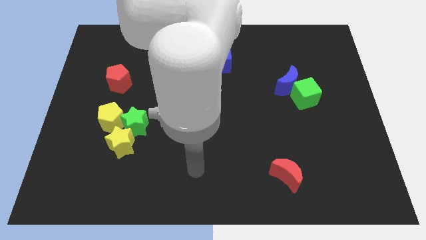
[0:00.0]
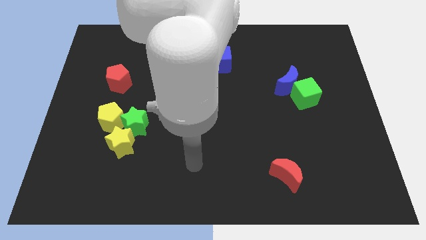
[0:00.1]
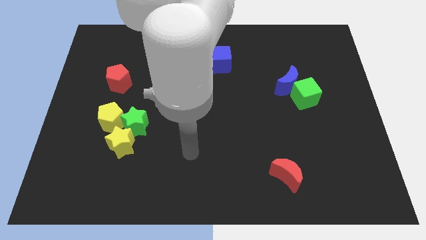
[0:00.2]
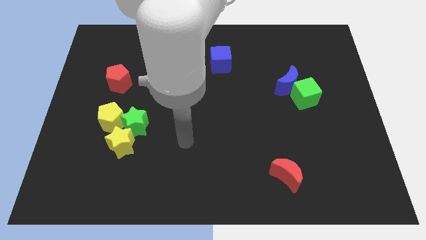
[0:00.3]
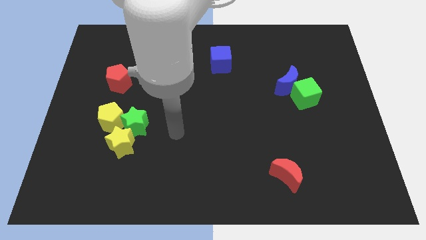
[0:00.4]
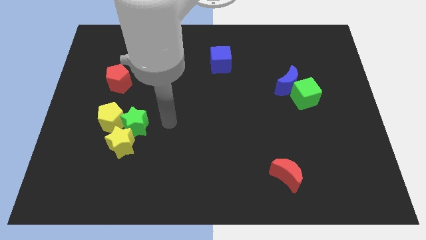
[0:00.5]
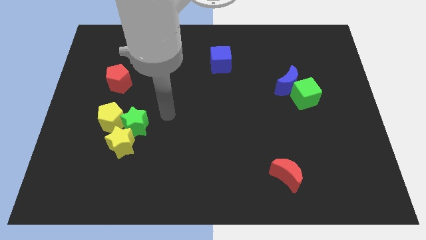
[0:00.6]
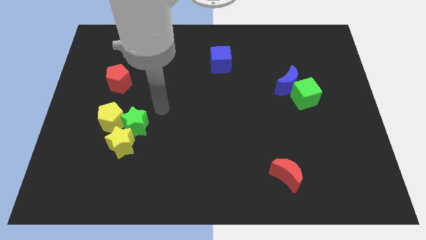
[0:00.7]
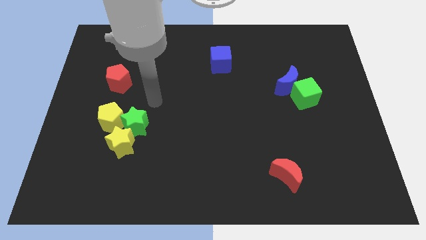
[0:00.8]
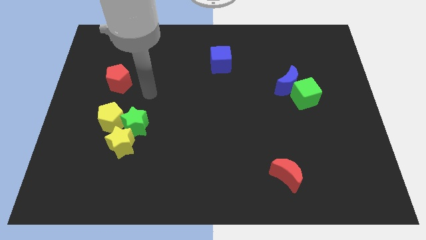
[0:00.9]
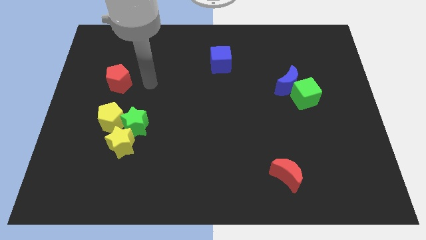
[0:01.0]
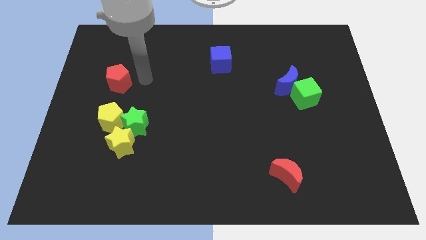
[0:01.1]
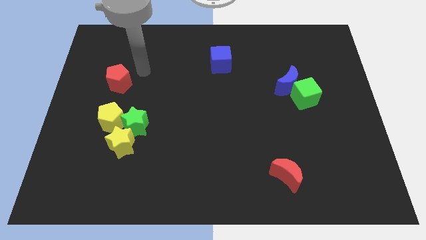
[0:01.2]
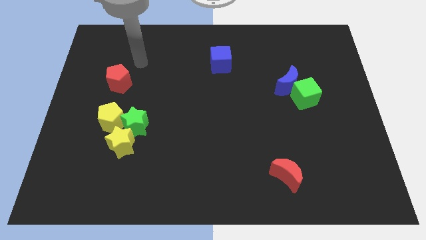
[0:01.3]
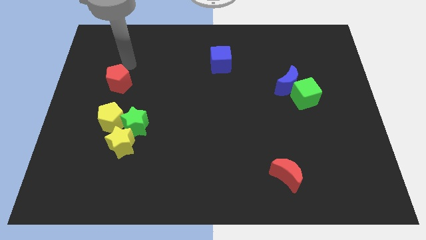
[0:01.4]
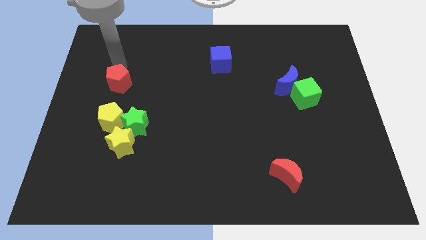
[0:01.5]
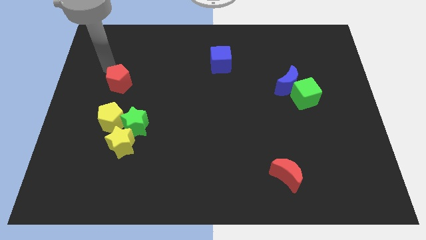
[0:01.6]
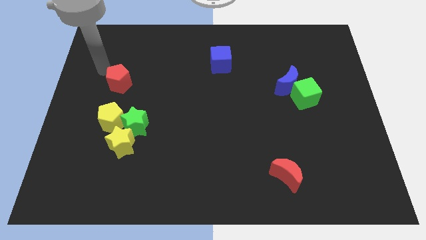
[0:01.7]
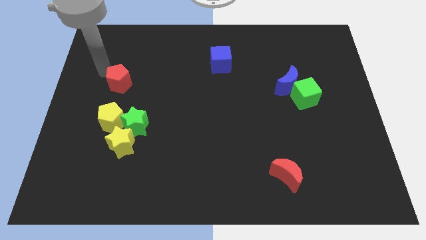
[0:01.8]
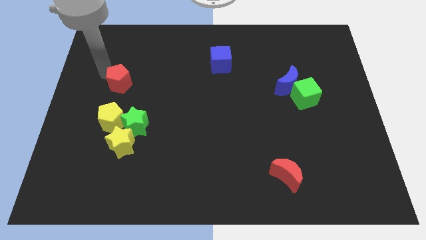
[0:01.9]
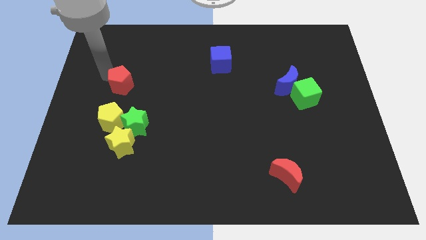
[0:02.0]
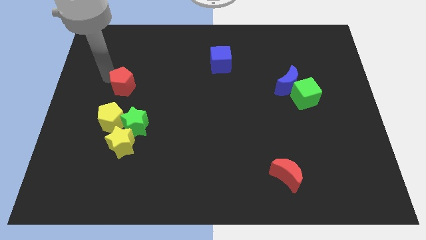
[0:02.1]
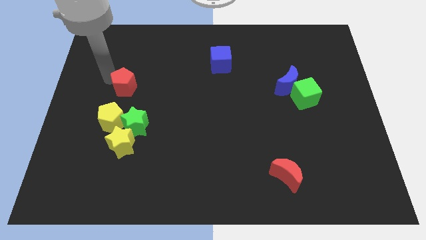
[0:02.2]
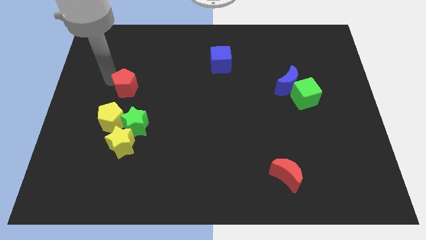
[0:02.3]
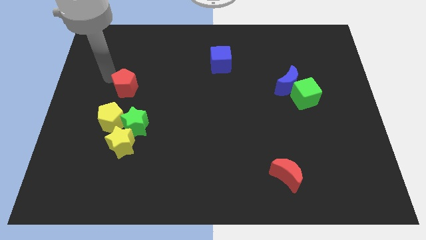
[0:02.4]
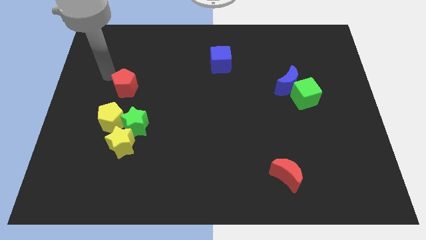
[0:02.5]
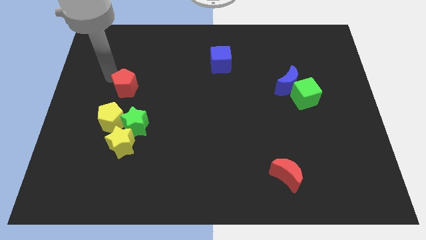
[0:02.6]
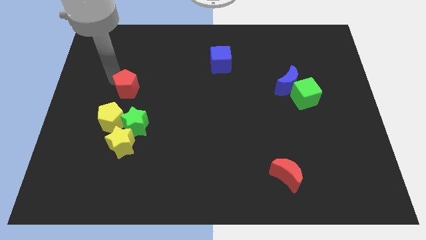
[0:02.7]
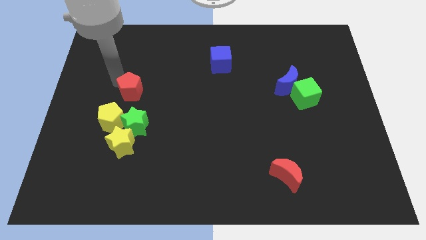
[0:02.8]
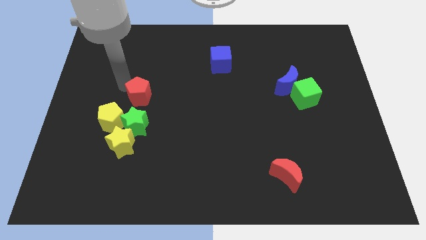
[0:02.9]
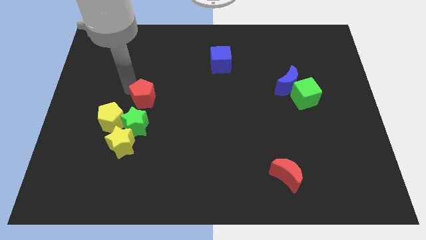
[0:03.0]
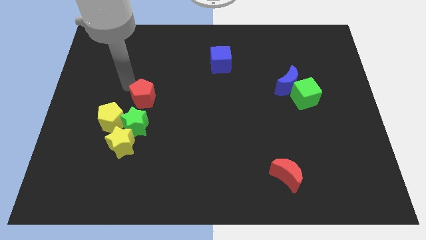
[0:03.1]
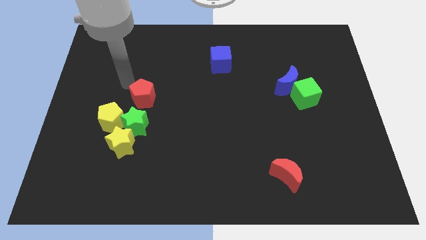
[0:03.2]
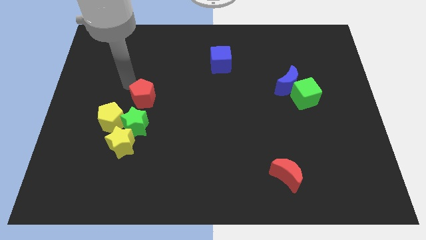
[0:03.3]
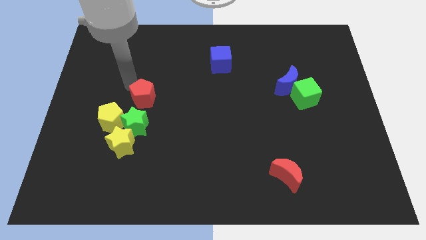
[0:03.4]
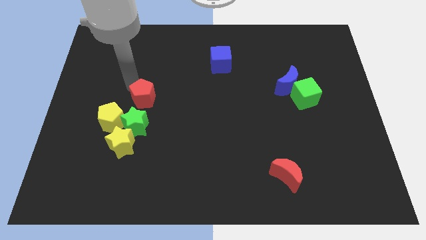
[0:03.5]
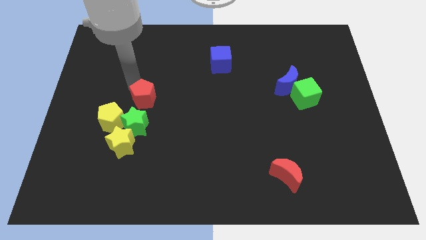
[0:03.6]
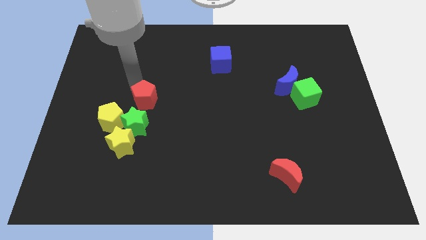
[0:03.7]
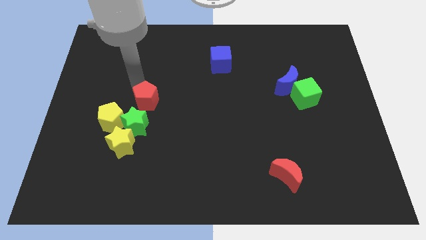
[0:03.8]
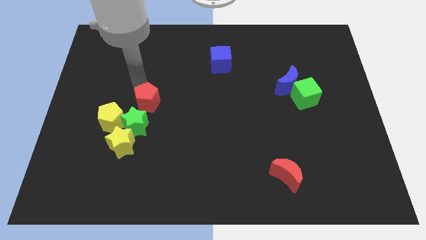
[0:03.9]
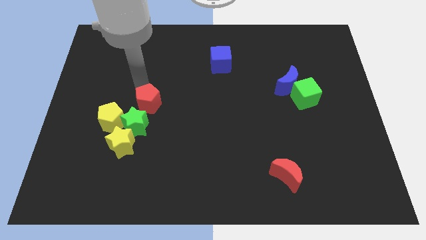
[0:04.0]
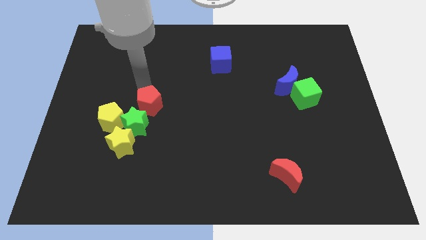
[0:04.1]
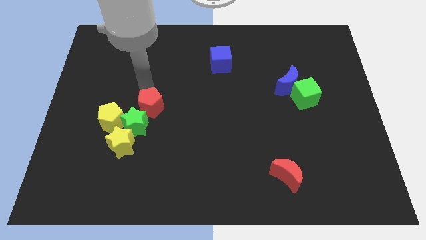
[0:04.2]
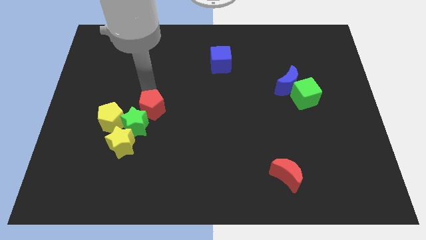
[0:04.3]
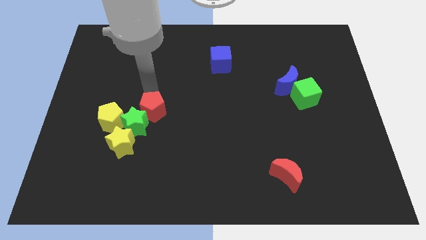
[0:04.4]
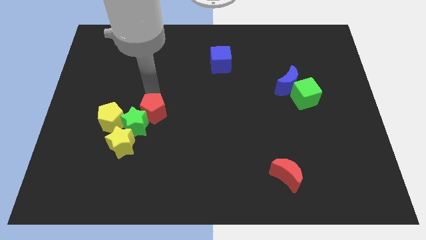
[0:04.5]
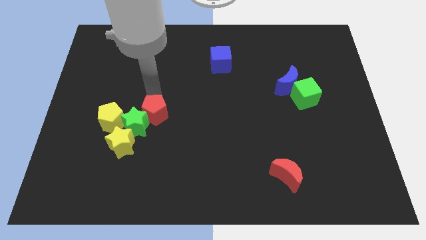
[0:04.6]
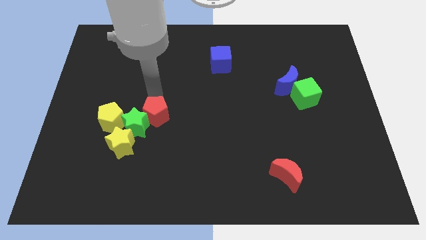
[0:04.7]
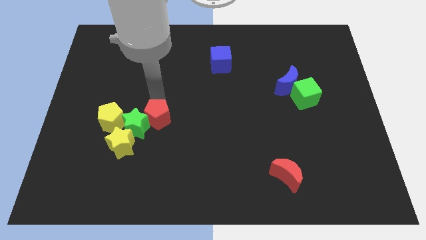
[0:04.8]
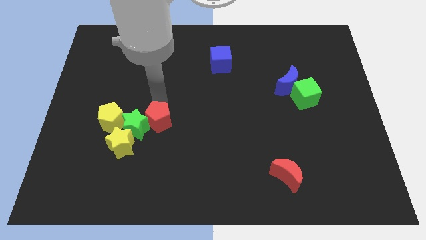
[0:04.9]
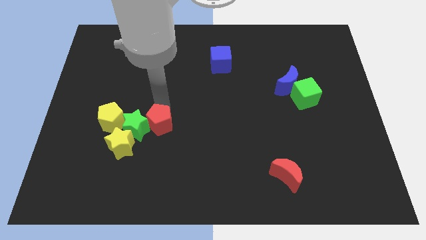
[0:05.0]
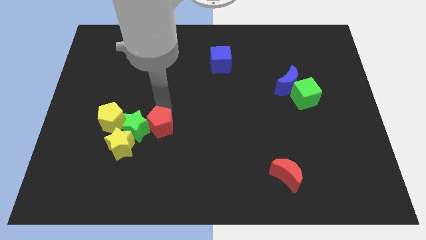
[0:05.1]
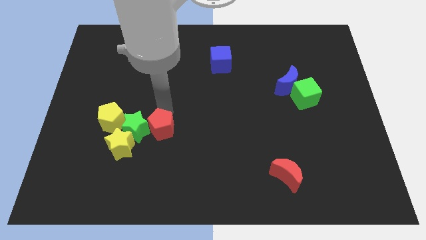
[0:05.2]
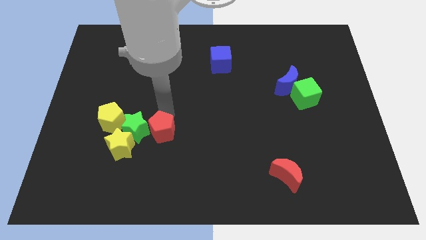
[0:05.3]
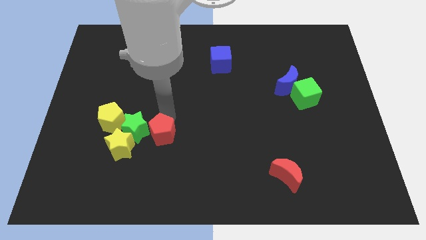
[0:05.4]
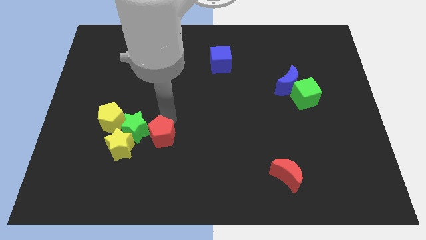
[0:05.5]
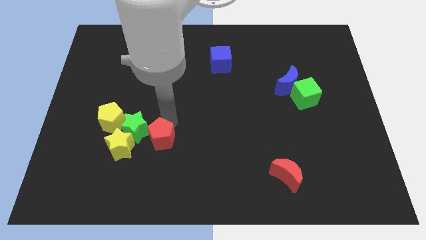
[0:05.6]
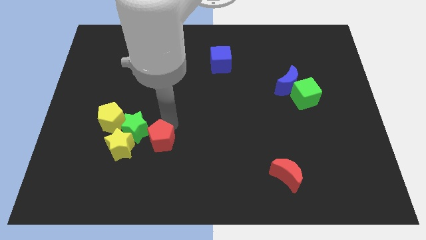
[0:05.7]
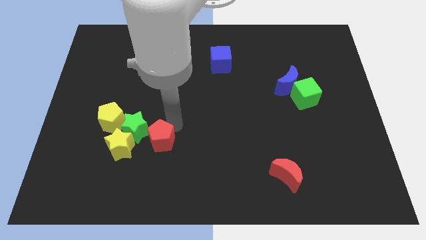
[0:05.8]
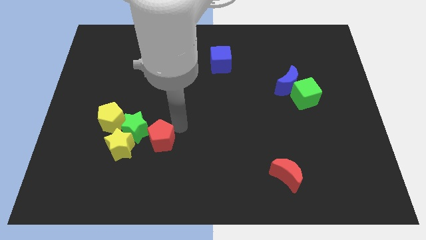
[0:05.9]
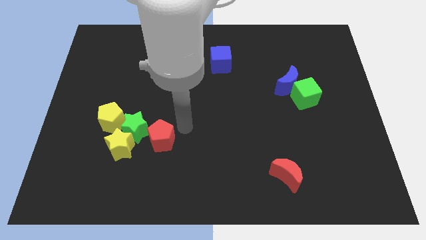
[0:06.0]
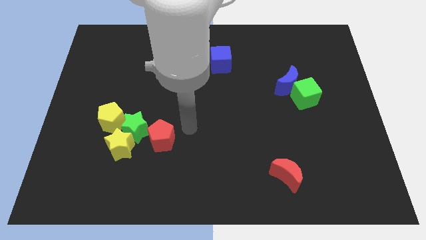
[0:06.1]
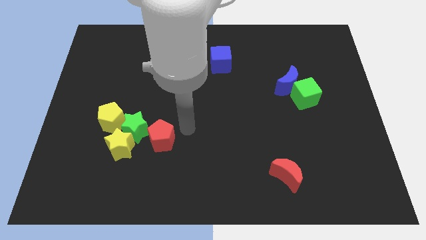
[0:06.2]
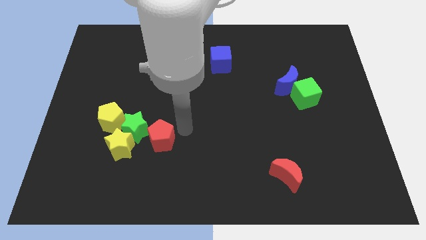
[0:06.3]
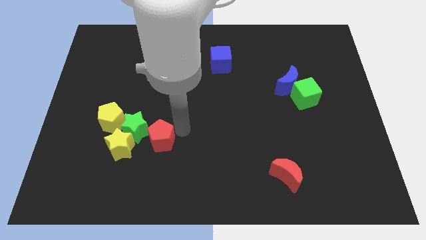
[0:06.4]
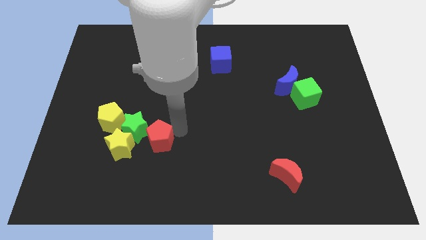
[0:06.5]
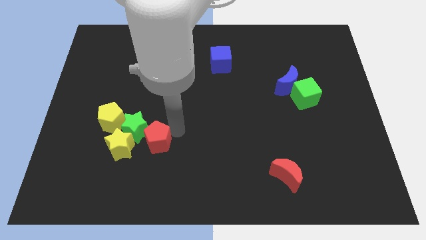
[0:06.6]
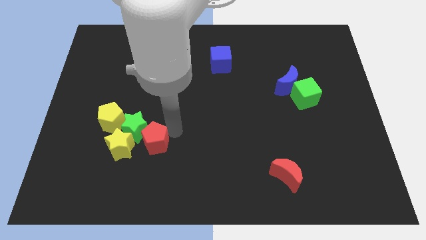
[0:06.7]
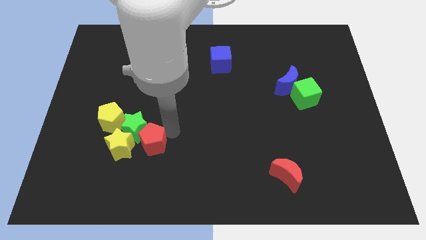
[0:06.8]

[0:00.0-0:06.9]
put the red pentagon below the green star
